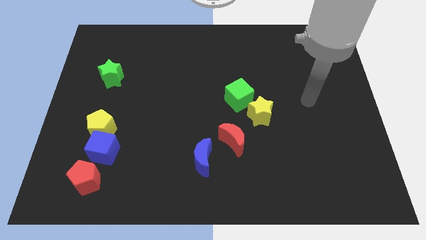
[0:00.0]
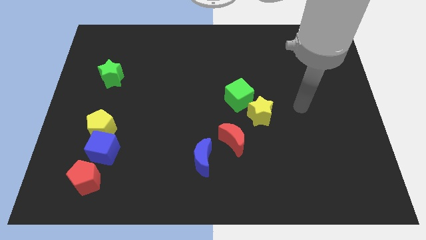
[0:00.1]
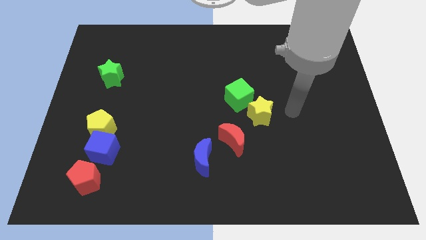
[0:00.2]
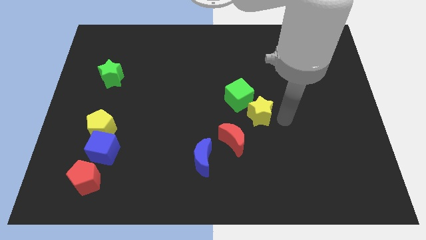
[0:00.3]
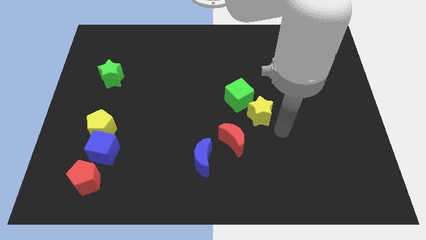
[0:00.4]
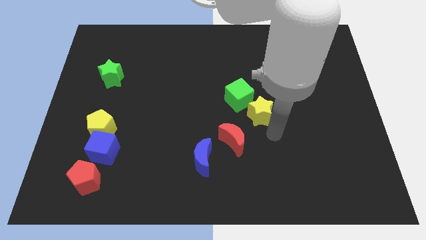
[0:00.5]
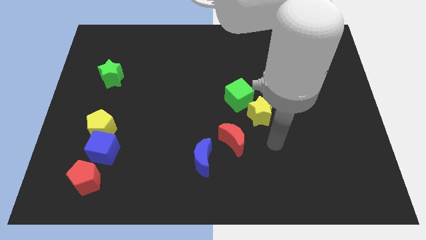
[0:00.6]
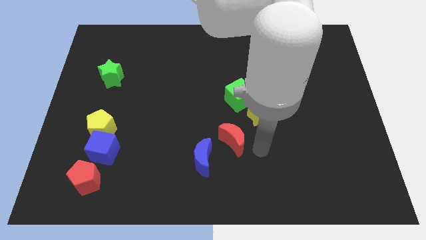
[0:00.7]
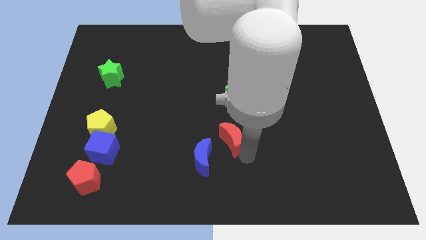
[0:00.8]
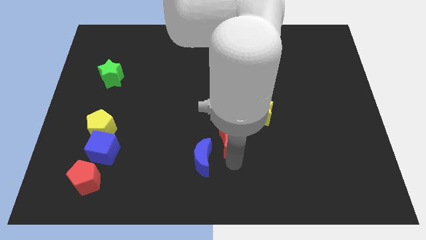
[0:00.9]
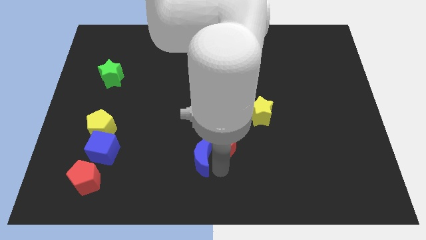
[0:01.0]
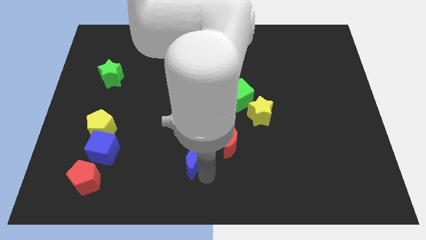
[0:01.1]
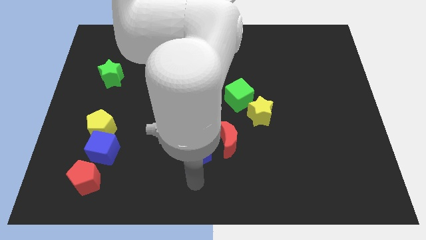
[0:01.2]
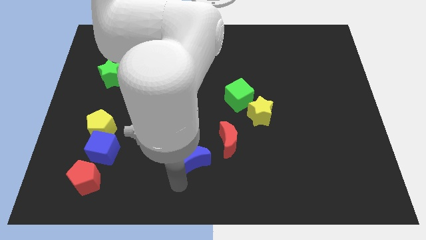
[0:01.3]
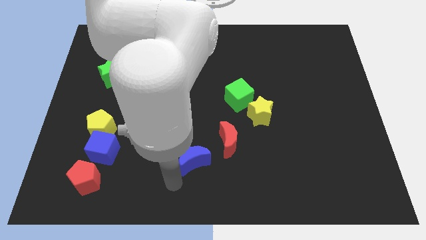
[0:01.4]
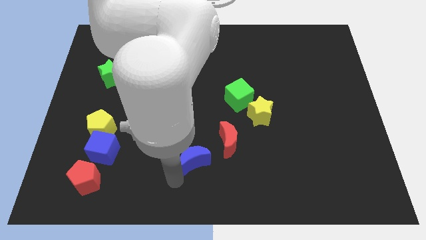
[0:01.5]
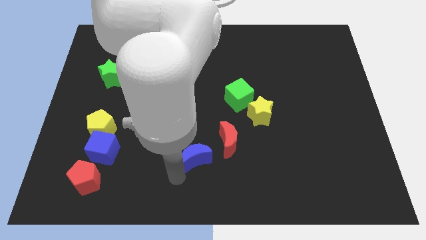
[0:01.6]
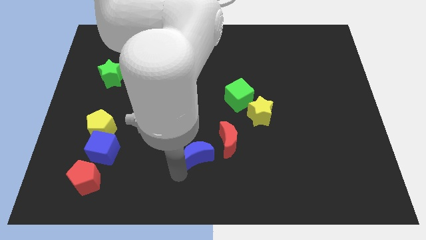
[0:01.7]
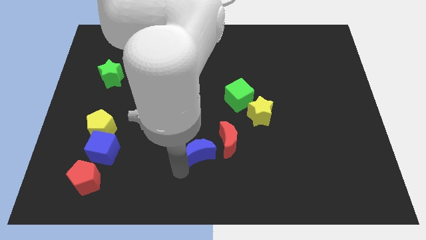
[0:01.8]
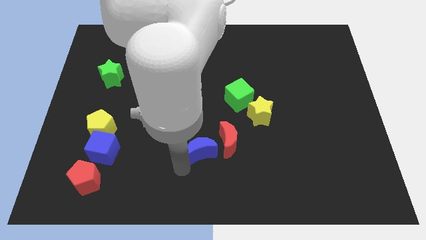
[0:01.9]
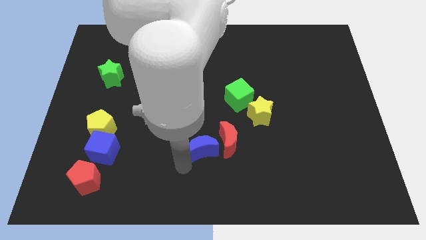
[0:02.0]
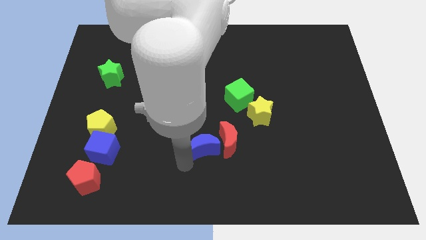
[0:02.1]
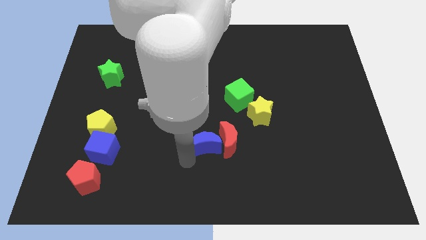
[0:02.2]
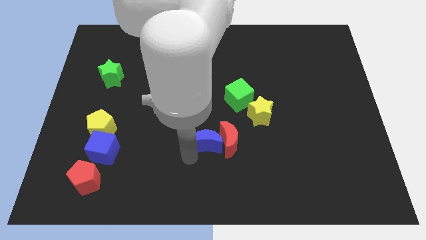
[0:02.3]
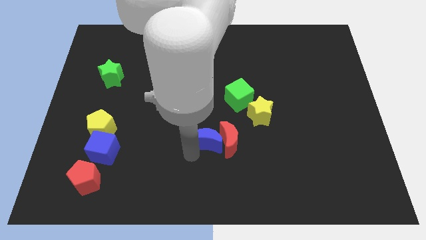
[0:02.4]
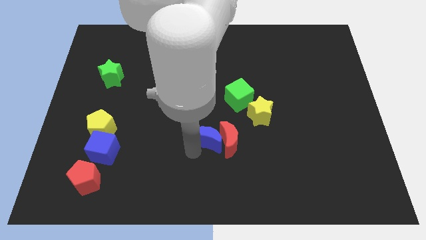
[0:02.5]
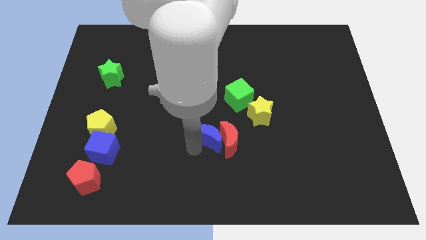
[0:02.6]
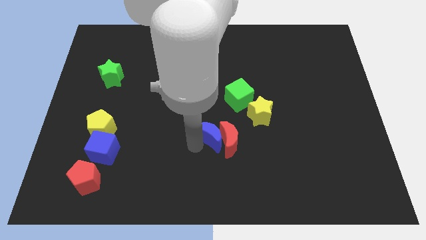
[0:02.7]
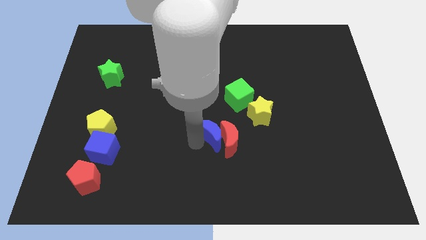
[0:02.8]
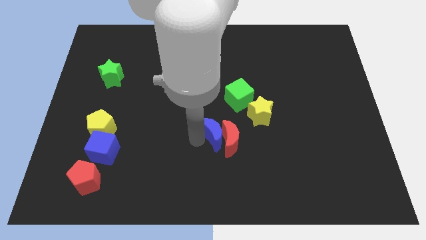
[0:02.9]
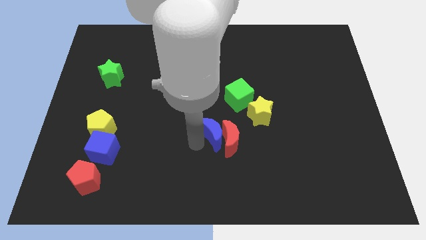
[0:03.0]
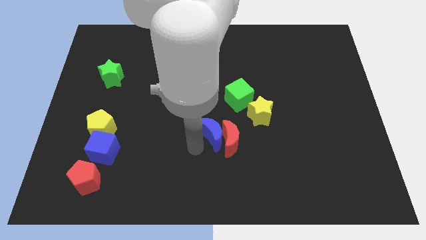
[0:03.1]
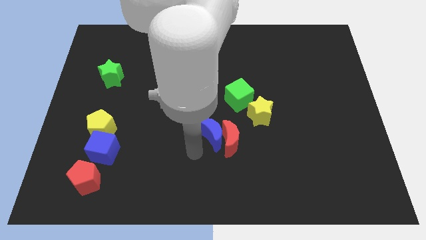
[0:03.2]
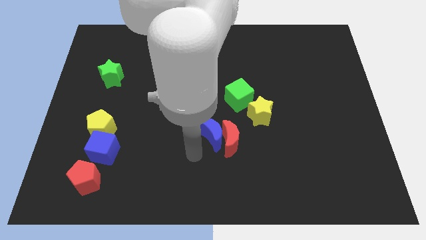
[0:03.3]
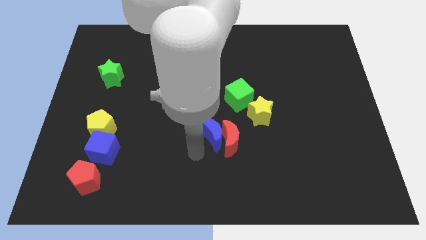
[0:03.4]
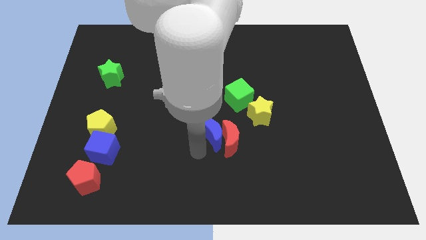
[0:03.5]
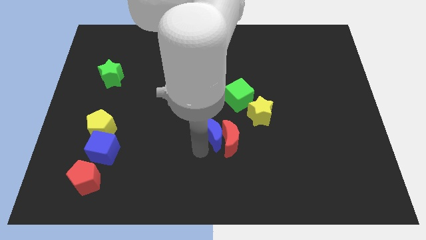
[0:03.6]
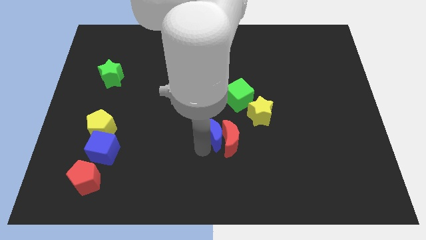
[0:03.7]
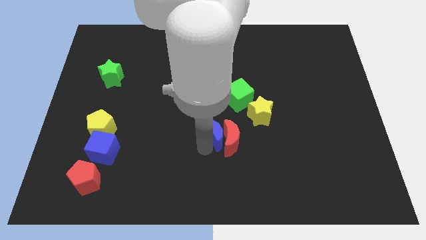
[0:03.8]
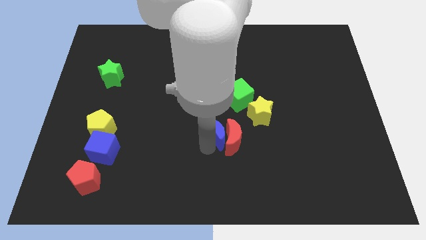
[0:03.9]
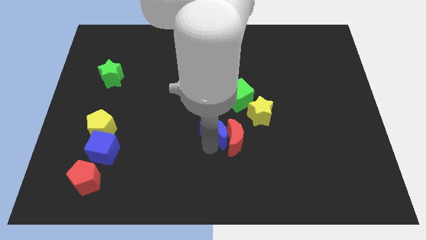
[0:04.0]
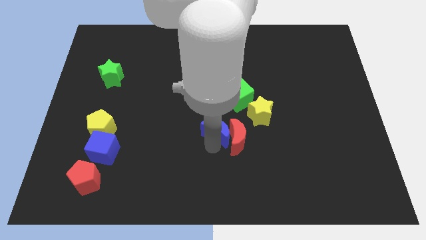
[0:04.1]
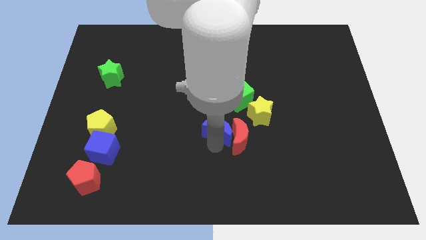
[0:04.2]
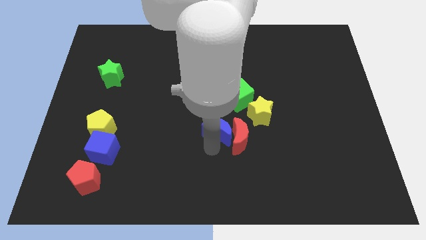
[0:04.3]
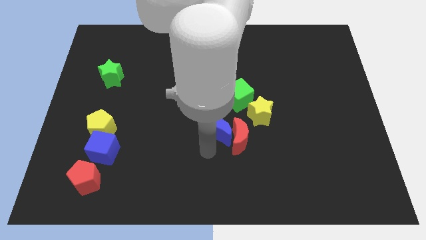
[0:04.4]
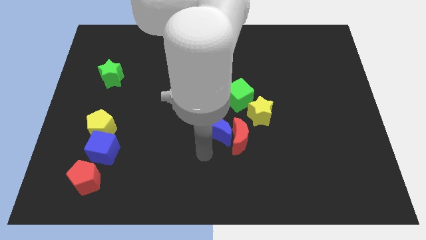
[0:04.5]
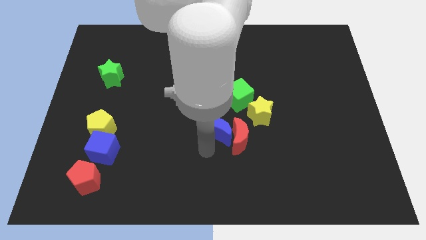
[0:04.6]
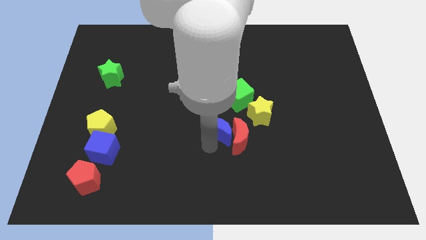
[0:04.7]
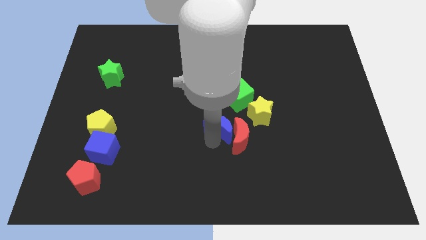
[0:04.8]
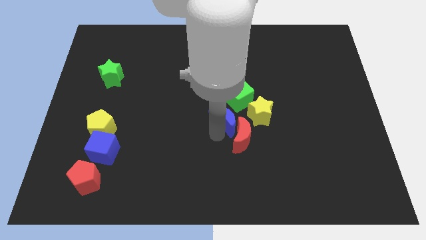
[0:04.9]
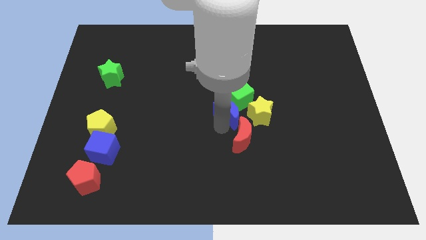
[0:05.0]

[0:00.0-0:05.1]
push the blue moon next to the green cube

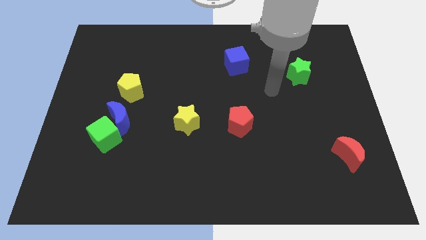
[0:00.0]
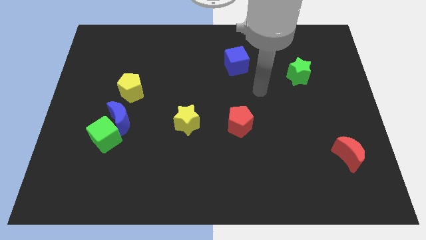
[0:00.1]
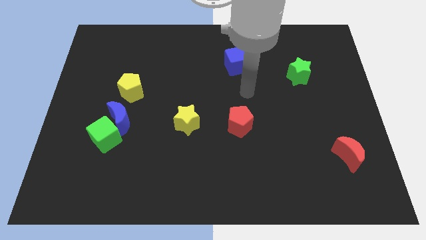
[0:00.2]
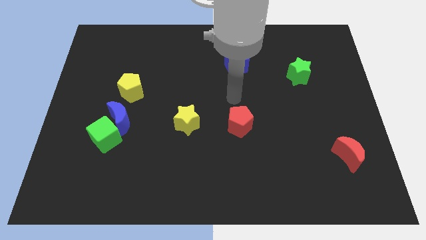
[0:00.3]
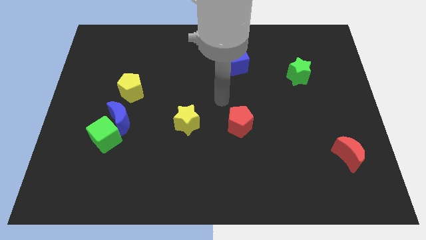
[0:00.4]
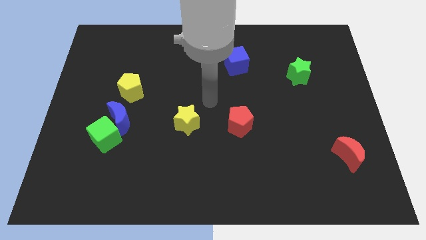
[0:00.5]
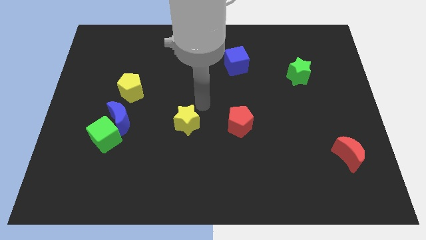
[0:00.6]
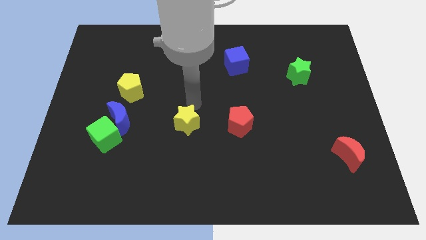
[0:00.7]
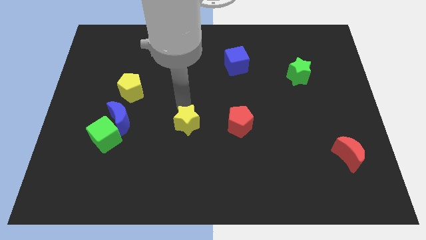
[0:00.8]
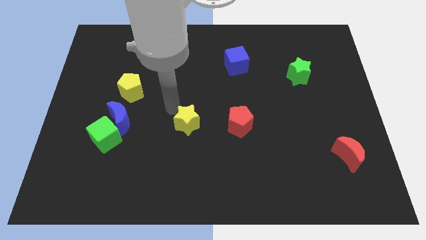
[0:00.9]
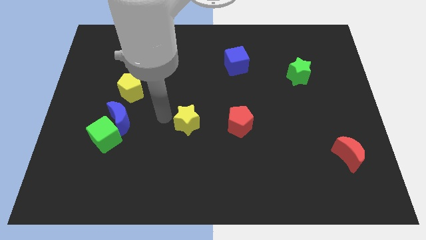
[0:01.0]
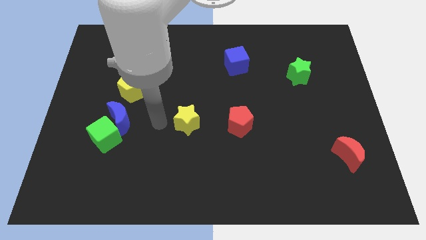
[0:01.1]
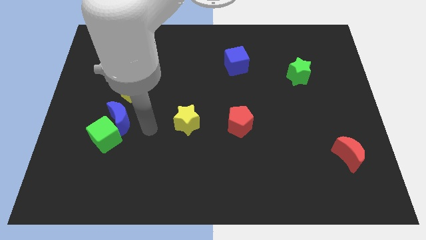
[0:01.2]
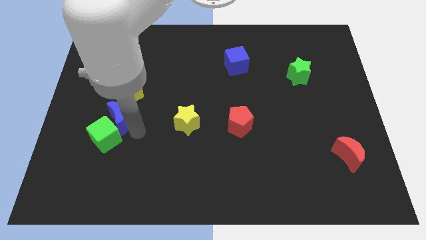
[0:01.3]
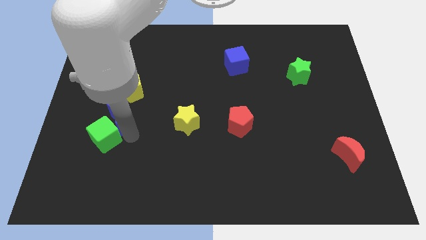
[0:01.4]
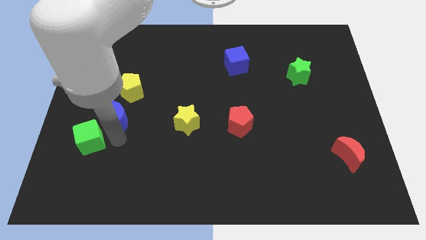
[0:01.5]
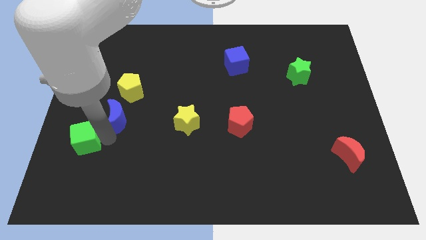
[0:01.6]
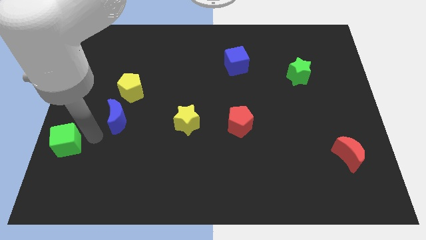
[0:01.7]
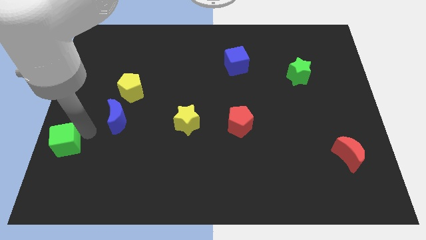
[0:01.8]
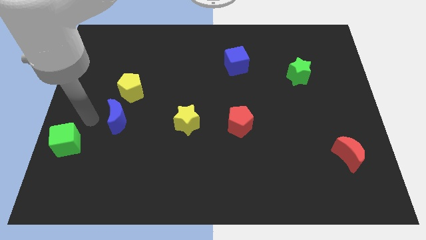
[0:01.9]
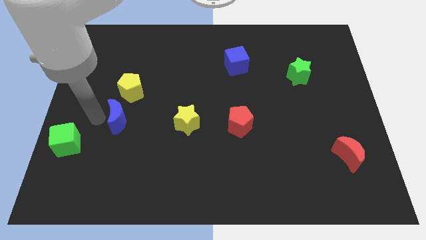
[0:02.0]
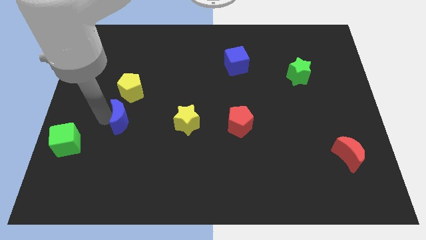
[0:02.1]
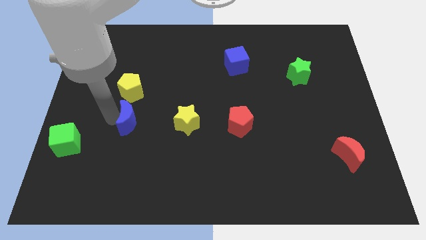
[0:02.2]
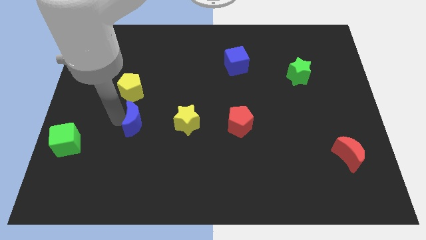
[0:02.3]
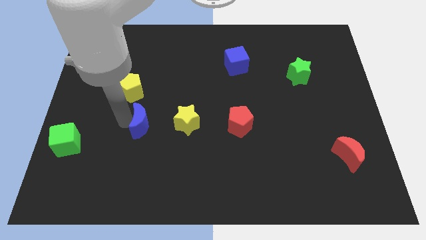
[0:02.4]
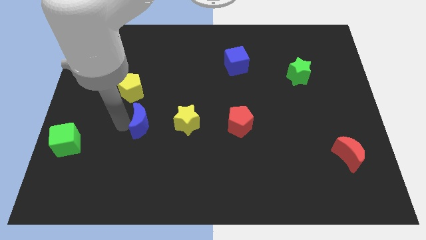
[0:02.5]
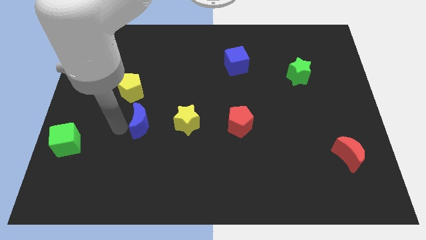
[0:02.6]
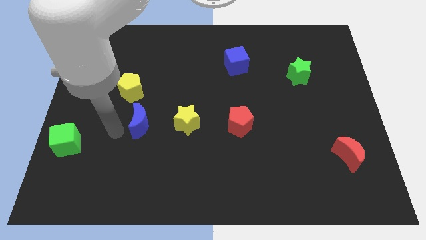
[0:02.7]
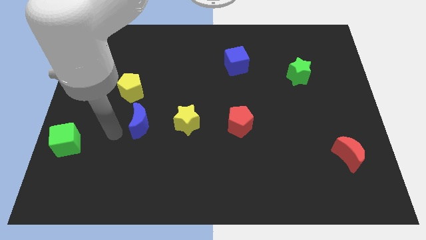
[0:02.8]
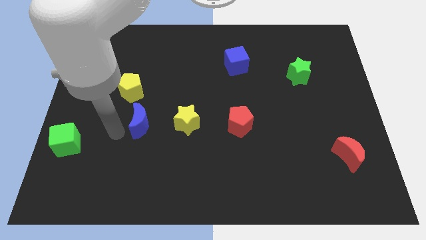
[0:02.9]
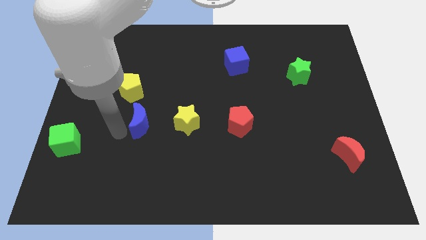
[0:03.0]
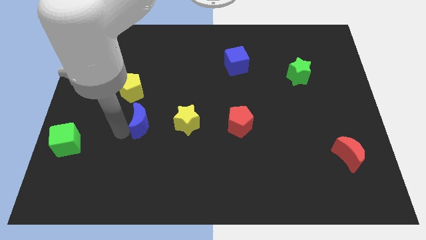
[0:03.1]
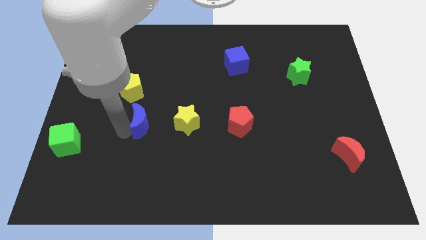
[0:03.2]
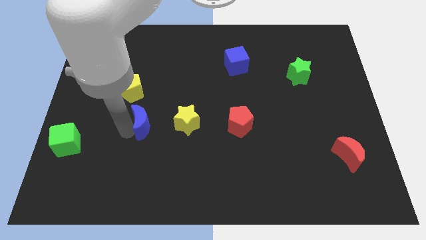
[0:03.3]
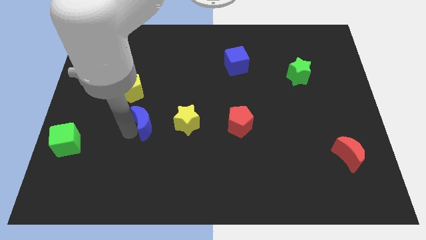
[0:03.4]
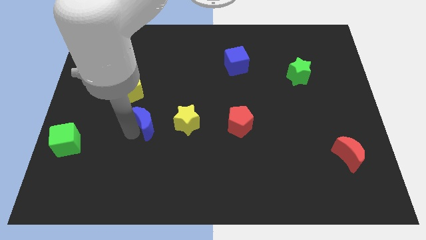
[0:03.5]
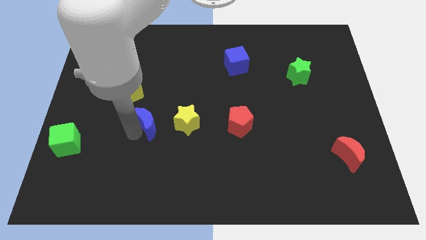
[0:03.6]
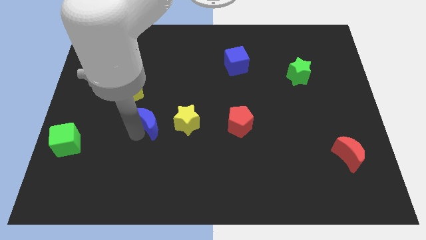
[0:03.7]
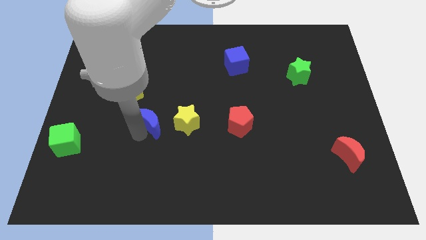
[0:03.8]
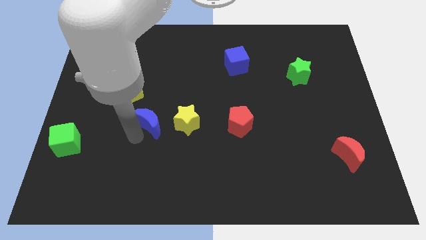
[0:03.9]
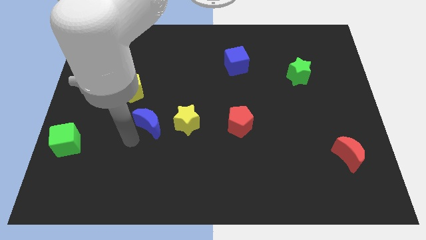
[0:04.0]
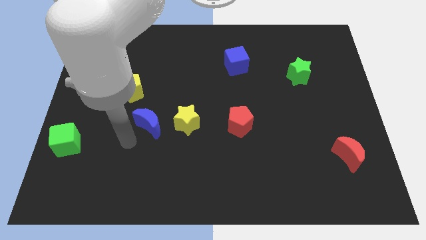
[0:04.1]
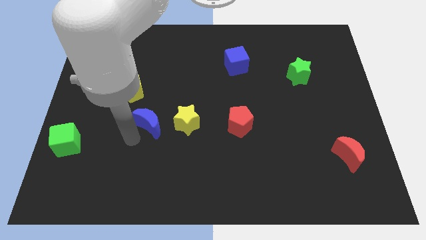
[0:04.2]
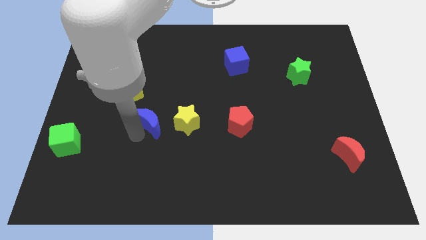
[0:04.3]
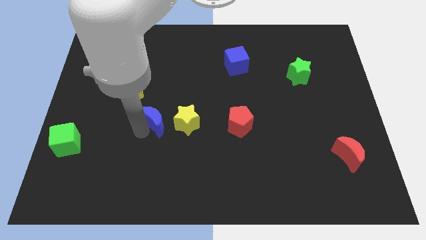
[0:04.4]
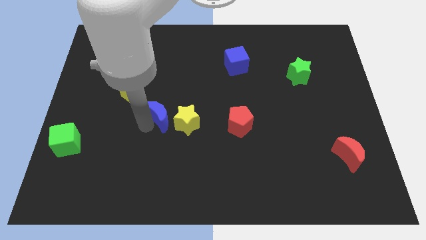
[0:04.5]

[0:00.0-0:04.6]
move the blue moon to the yellow star
